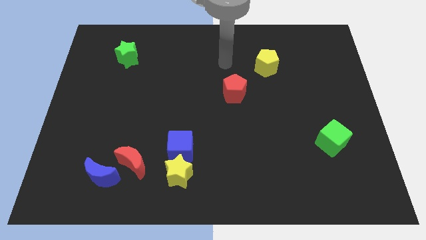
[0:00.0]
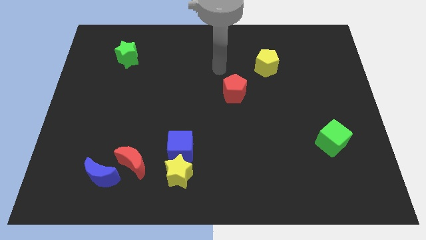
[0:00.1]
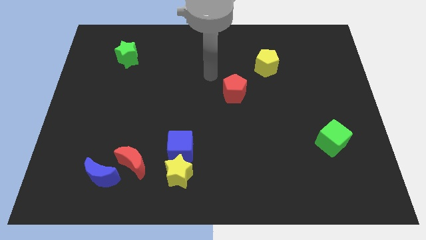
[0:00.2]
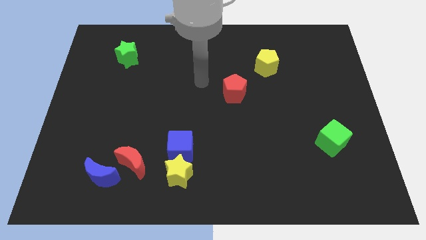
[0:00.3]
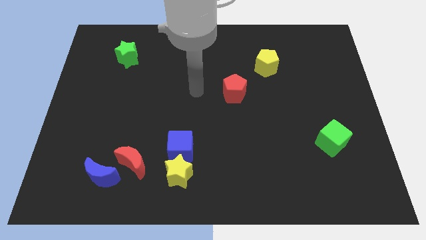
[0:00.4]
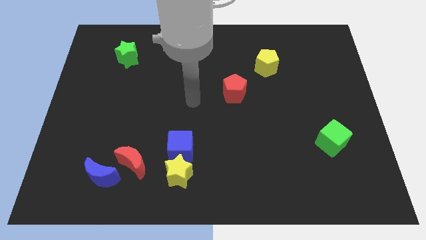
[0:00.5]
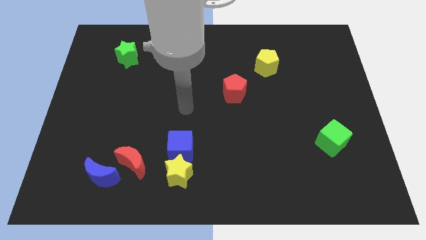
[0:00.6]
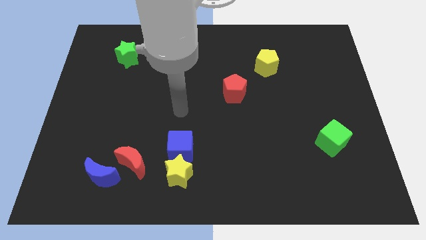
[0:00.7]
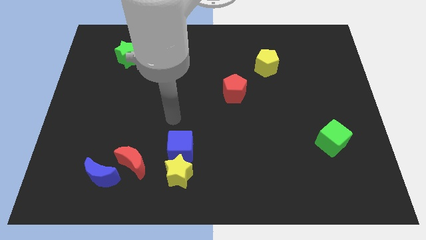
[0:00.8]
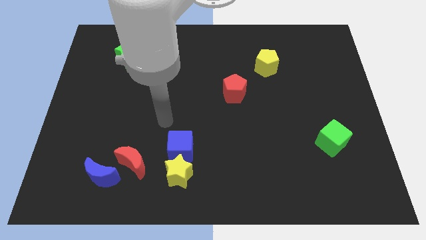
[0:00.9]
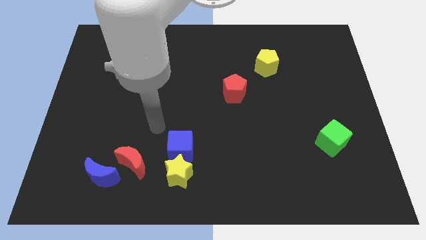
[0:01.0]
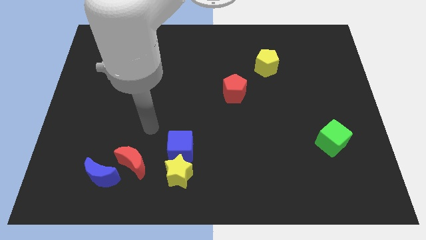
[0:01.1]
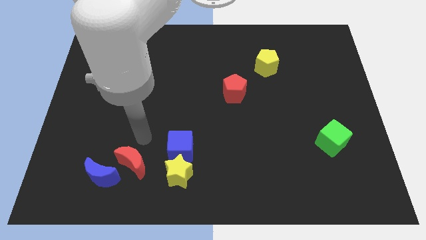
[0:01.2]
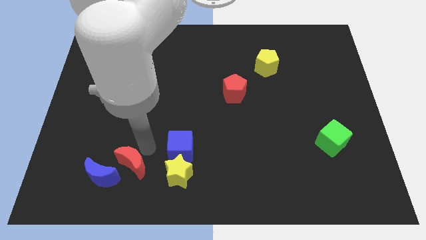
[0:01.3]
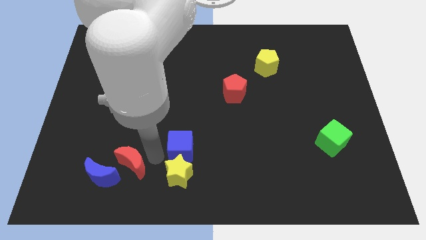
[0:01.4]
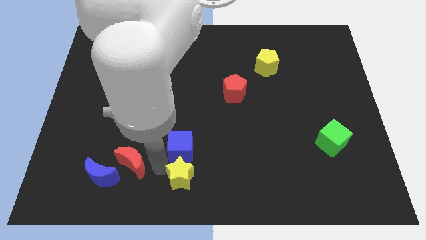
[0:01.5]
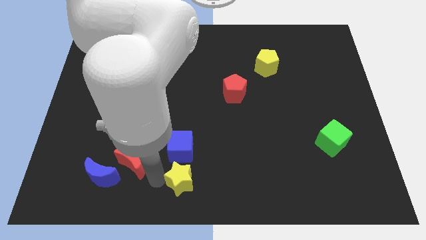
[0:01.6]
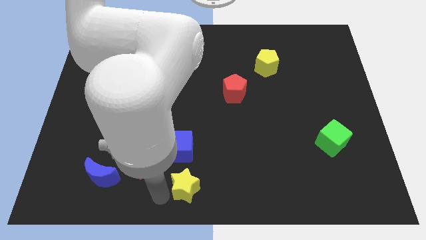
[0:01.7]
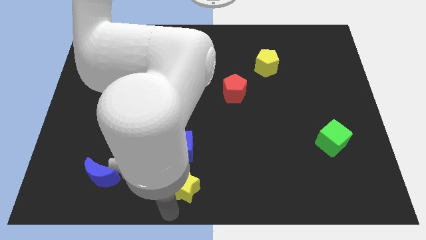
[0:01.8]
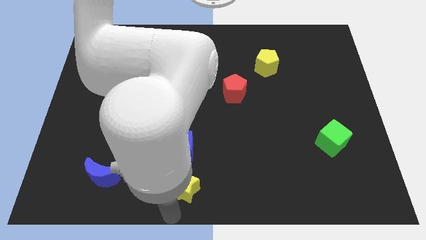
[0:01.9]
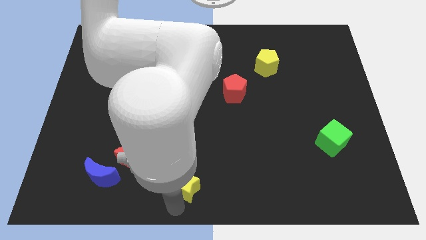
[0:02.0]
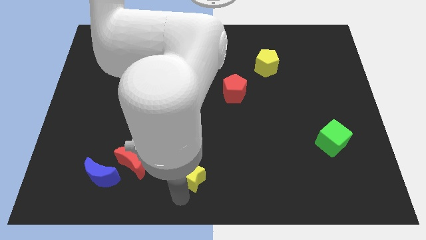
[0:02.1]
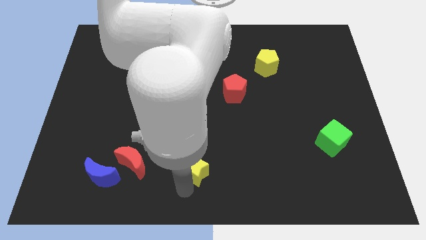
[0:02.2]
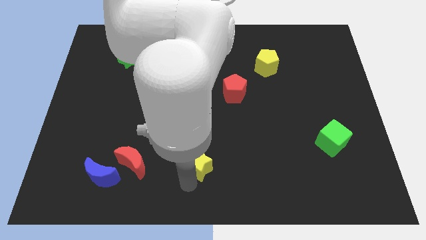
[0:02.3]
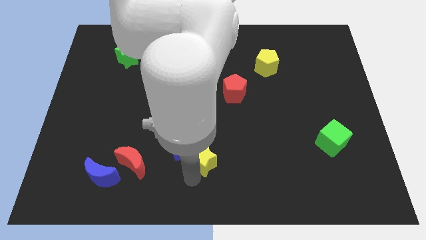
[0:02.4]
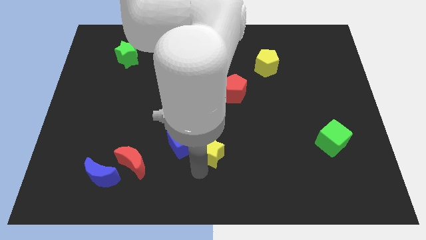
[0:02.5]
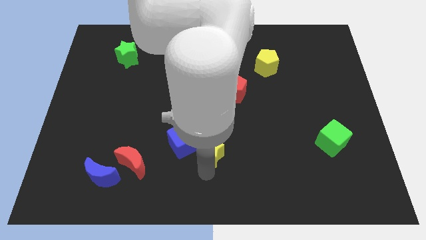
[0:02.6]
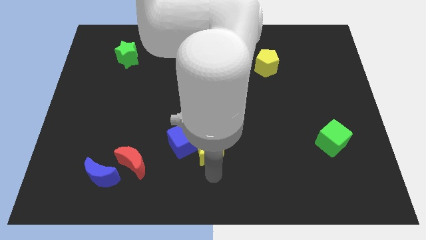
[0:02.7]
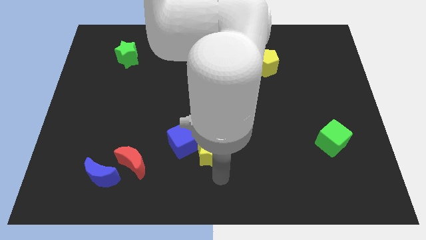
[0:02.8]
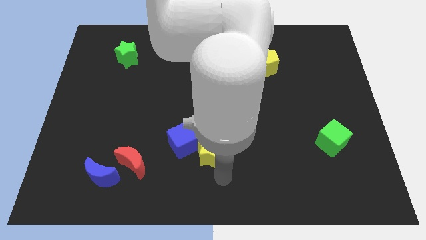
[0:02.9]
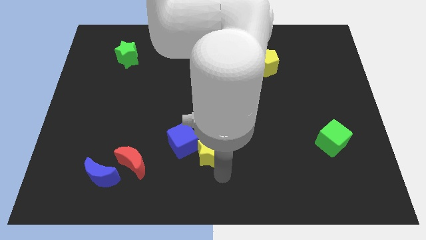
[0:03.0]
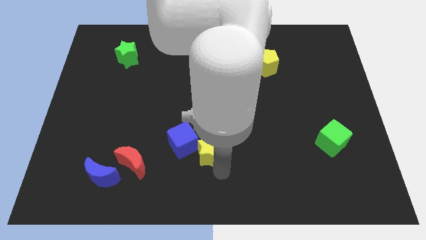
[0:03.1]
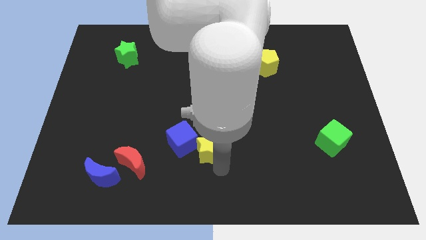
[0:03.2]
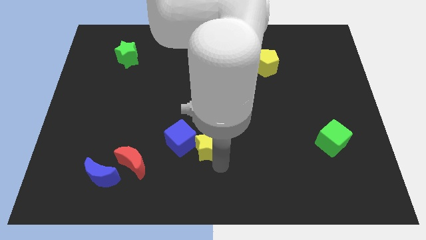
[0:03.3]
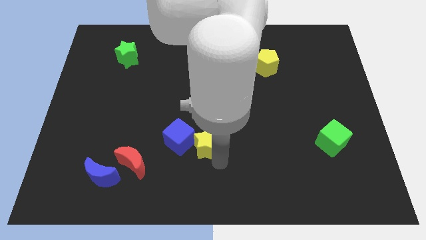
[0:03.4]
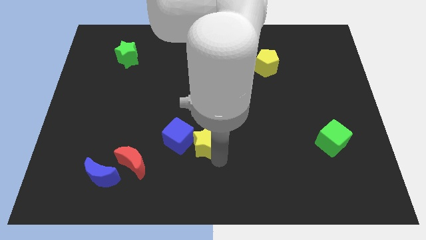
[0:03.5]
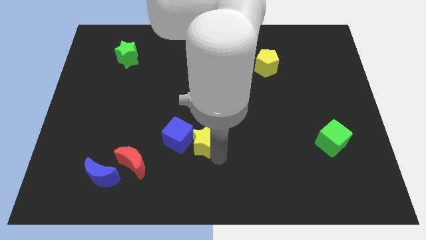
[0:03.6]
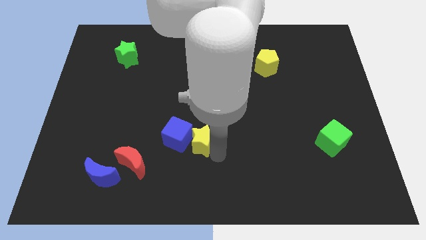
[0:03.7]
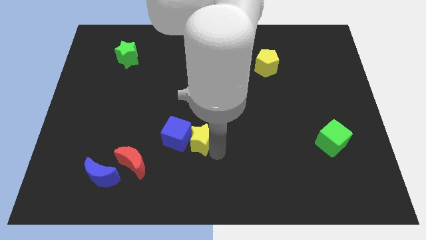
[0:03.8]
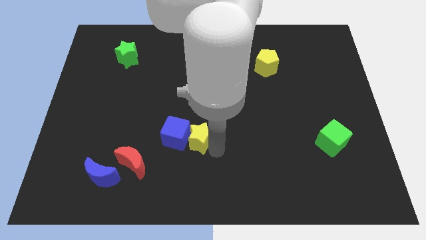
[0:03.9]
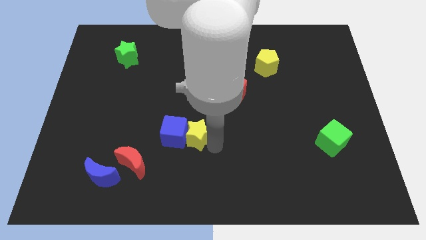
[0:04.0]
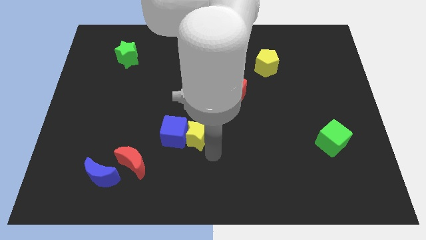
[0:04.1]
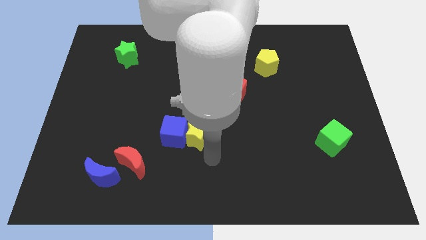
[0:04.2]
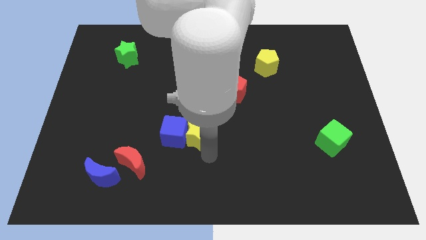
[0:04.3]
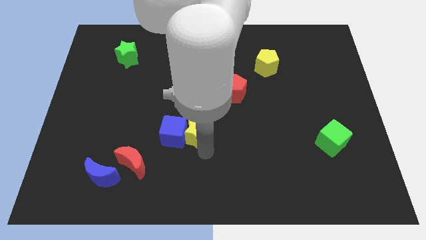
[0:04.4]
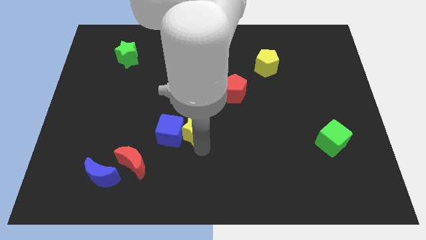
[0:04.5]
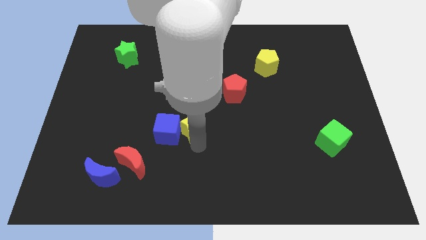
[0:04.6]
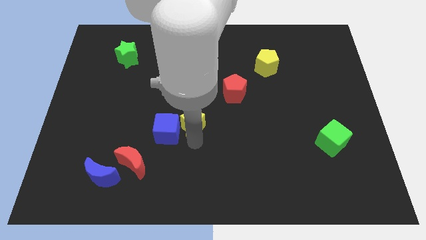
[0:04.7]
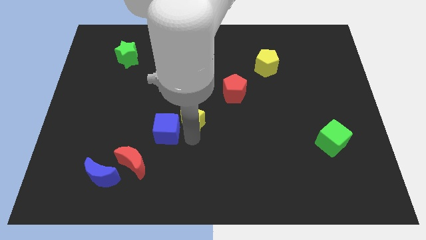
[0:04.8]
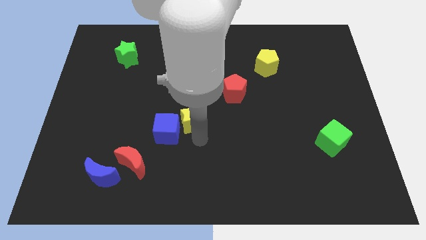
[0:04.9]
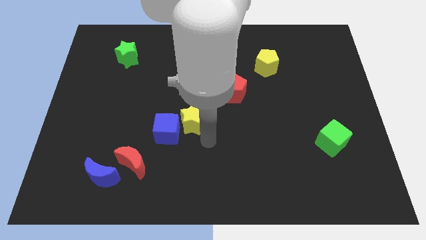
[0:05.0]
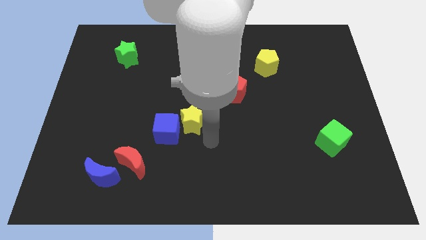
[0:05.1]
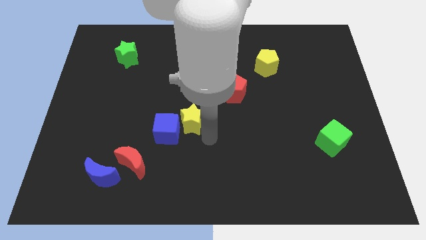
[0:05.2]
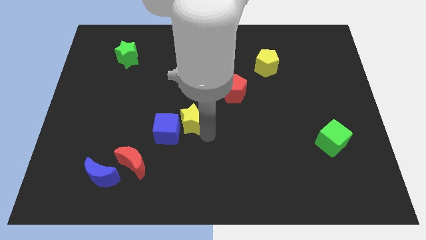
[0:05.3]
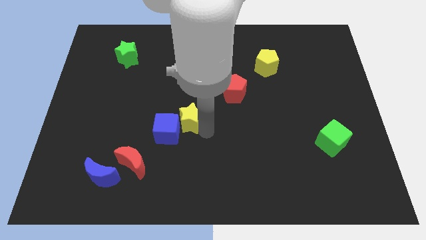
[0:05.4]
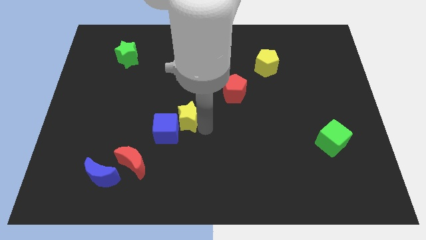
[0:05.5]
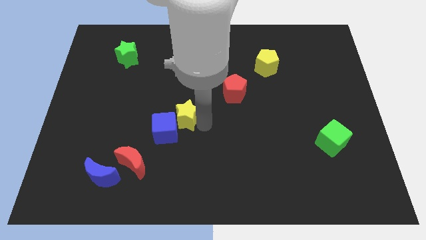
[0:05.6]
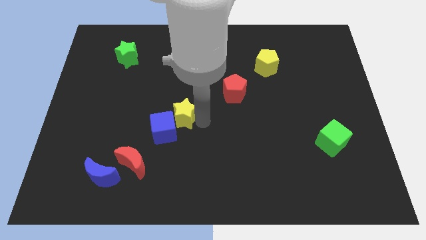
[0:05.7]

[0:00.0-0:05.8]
slide the yellow star to the top of the blue cube

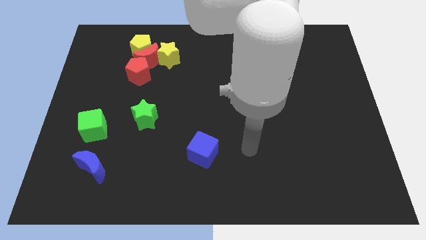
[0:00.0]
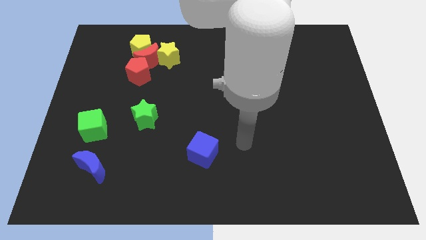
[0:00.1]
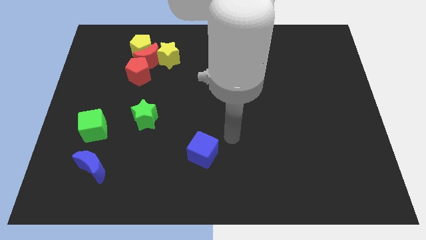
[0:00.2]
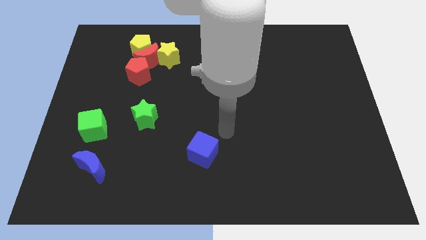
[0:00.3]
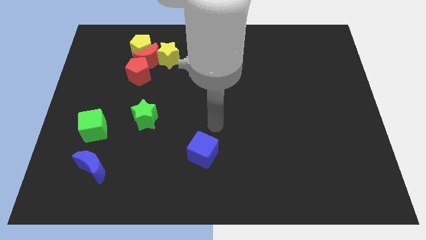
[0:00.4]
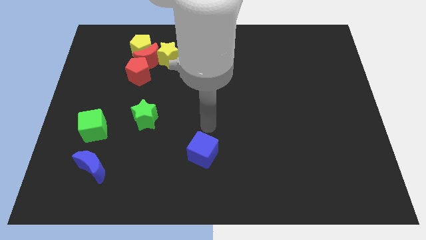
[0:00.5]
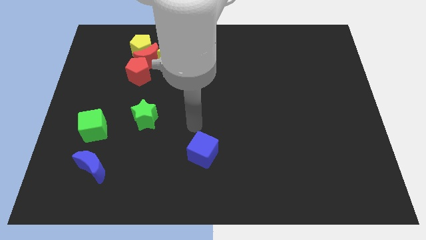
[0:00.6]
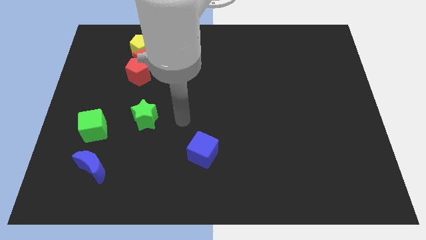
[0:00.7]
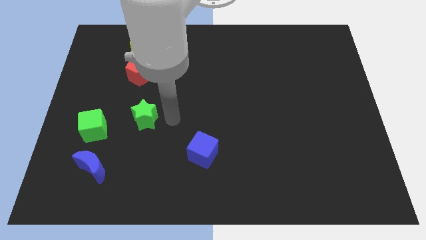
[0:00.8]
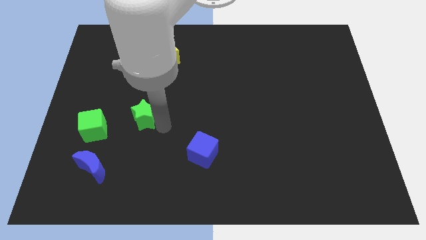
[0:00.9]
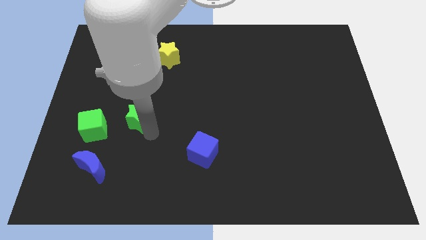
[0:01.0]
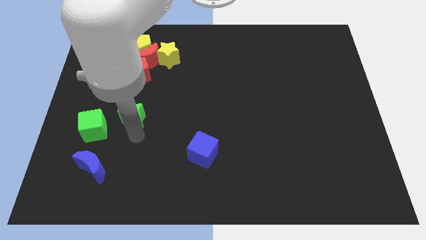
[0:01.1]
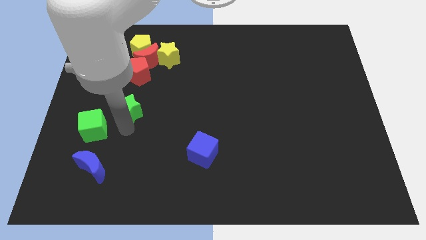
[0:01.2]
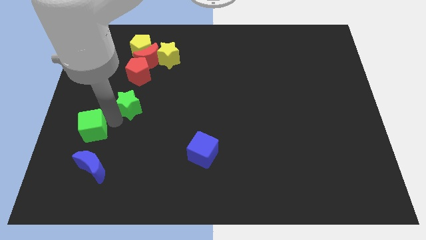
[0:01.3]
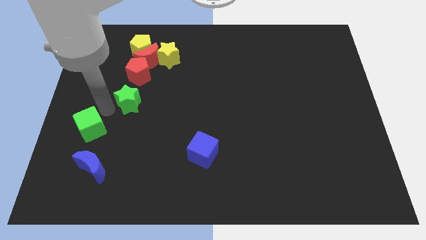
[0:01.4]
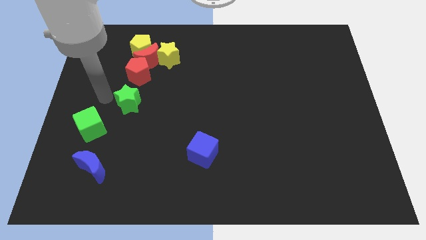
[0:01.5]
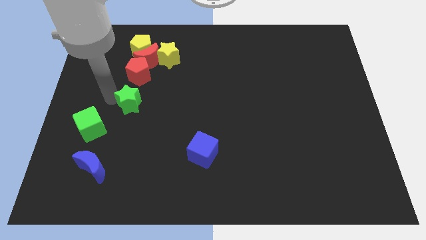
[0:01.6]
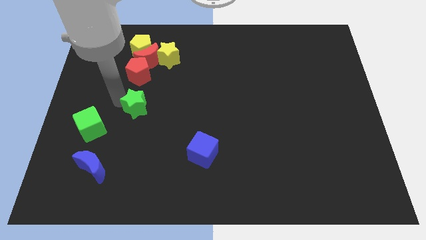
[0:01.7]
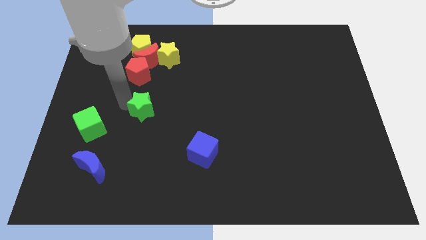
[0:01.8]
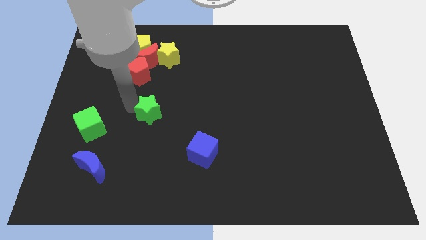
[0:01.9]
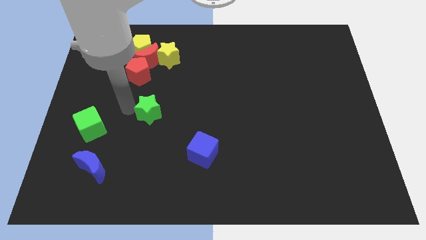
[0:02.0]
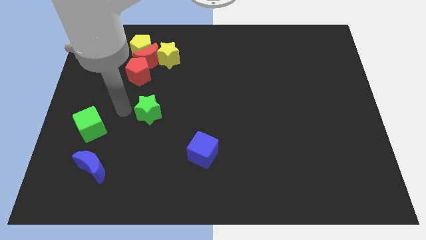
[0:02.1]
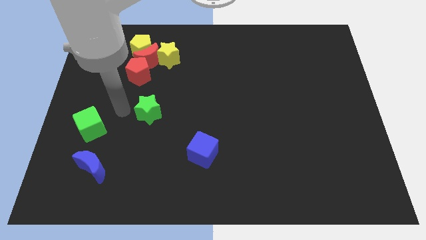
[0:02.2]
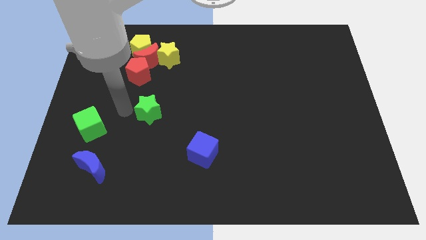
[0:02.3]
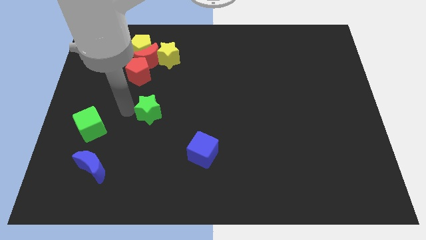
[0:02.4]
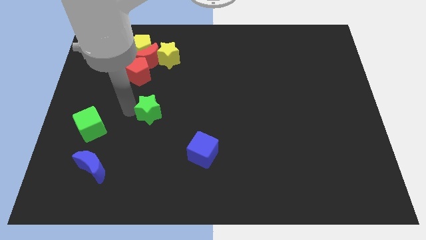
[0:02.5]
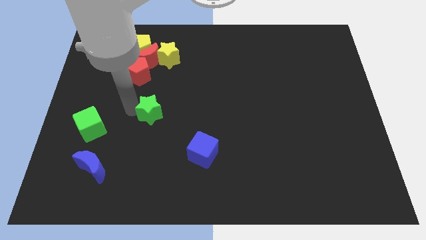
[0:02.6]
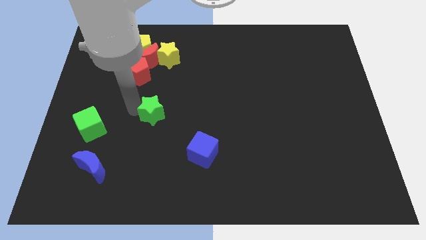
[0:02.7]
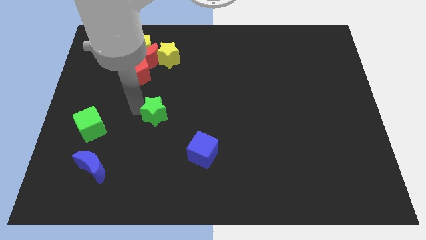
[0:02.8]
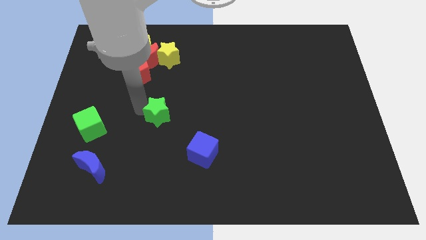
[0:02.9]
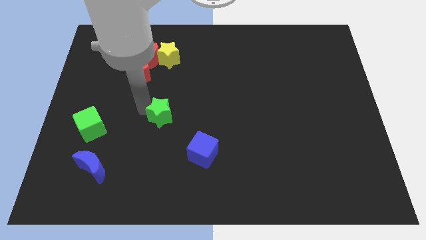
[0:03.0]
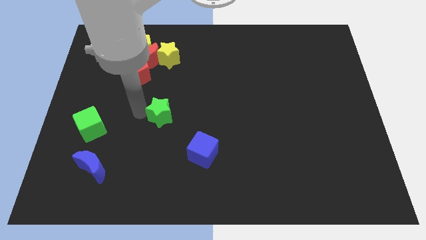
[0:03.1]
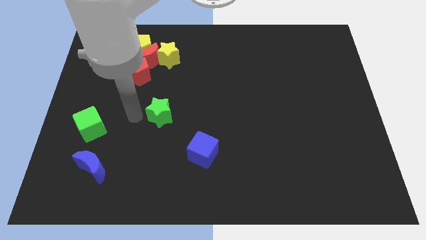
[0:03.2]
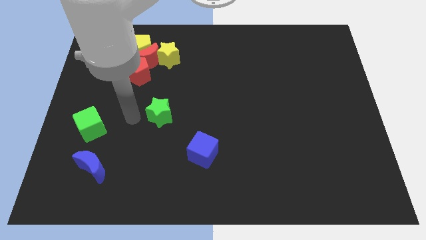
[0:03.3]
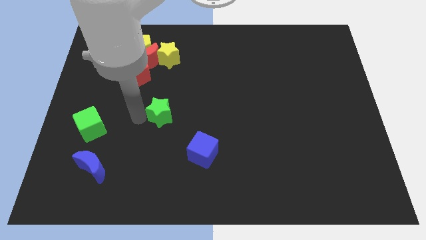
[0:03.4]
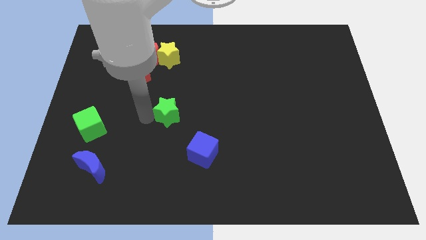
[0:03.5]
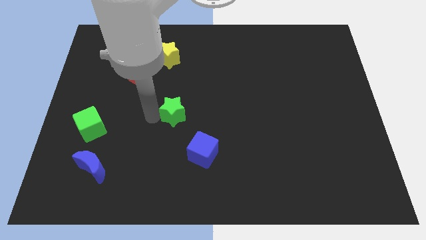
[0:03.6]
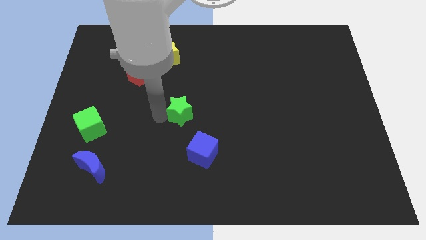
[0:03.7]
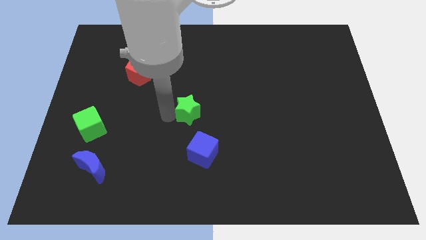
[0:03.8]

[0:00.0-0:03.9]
move the green star above the blue cube
